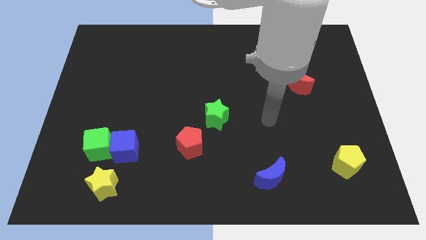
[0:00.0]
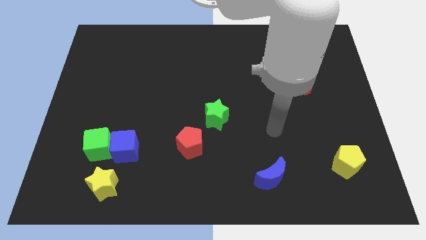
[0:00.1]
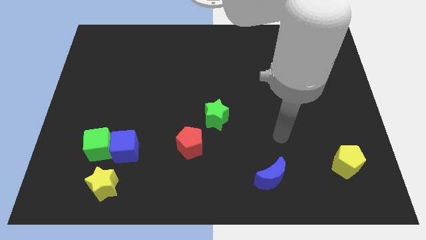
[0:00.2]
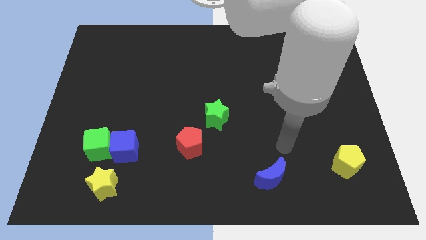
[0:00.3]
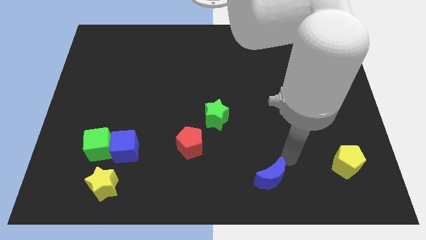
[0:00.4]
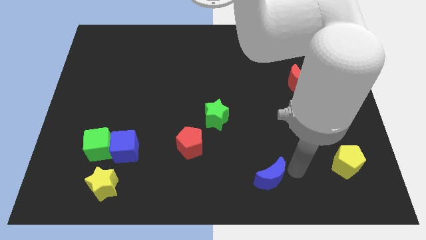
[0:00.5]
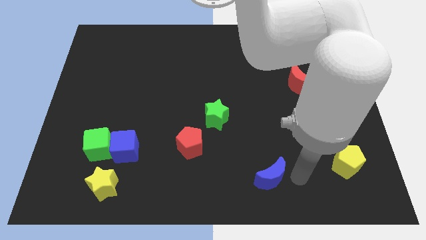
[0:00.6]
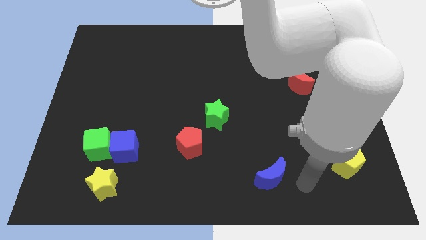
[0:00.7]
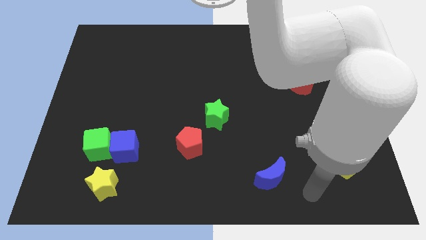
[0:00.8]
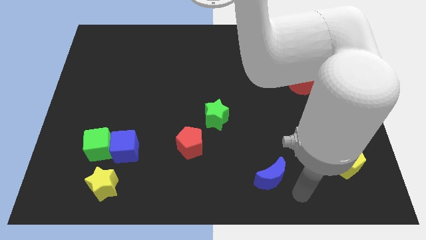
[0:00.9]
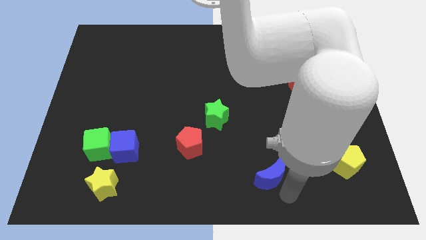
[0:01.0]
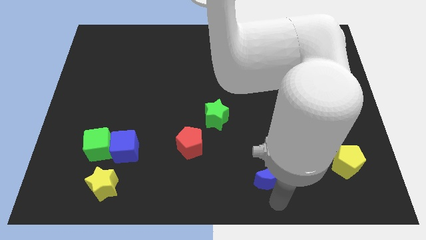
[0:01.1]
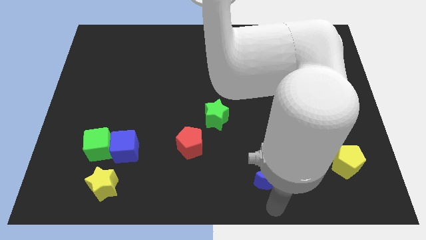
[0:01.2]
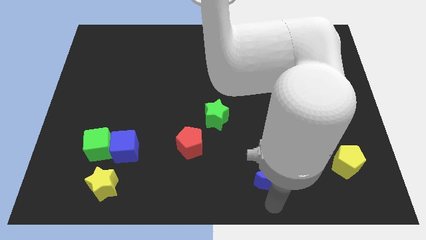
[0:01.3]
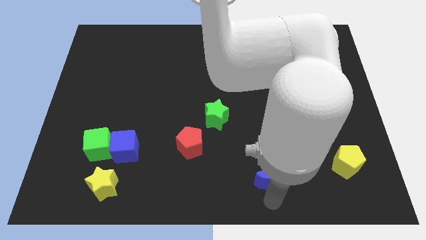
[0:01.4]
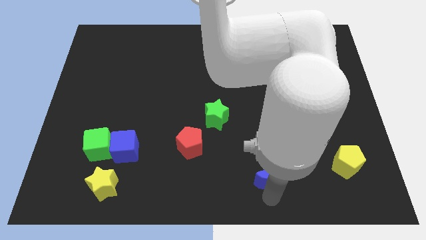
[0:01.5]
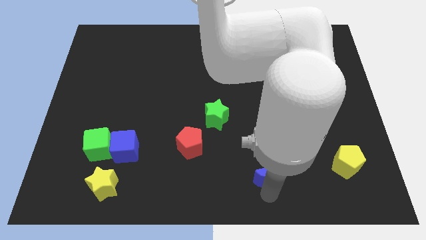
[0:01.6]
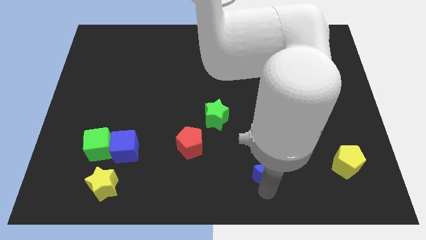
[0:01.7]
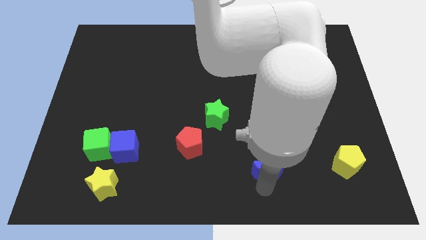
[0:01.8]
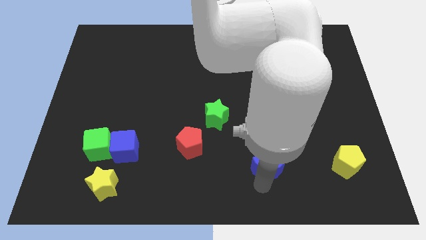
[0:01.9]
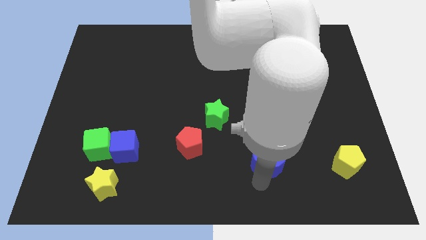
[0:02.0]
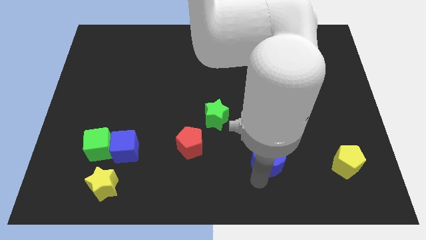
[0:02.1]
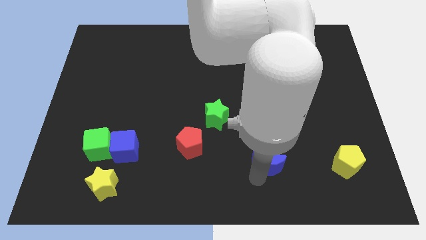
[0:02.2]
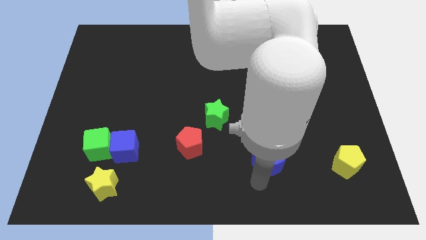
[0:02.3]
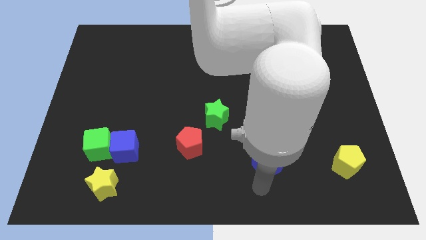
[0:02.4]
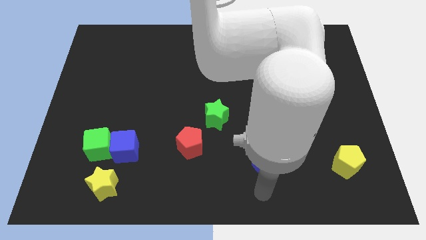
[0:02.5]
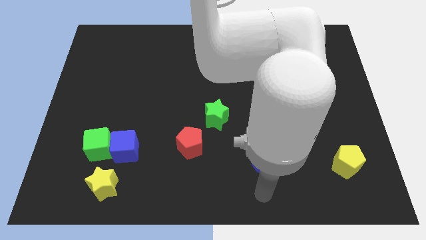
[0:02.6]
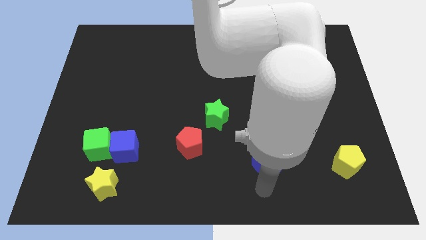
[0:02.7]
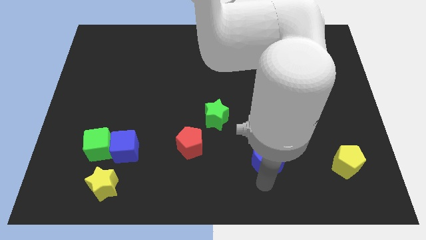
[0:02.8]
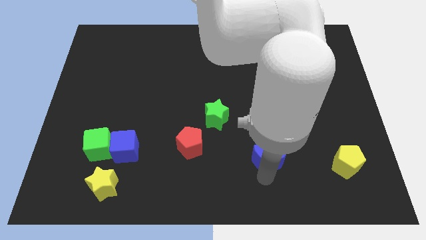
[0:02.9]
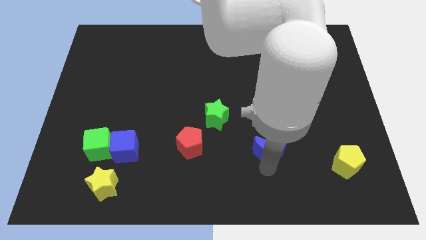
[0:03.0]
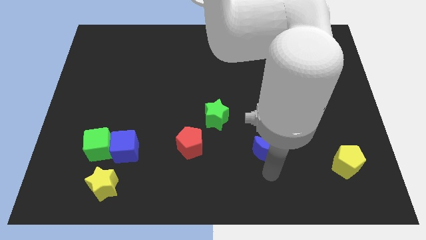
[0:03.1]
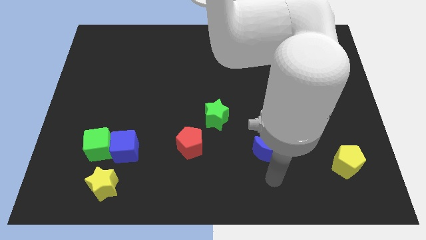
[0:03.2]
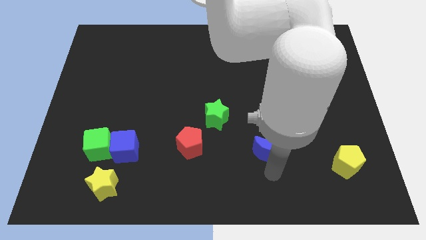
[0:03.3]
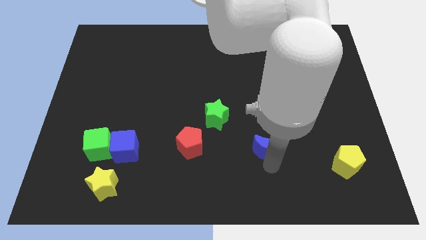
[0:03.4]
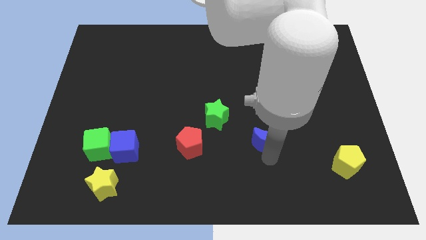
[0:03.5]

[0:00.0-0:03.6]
push the blue moon up a bit

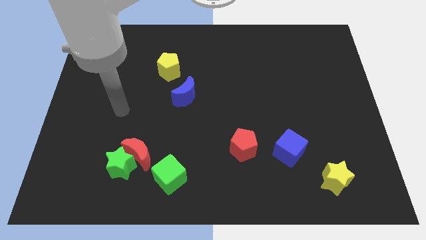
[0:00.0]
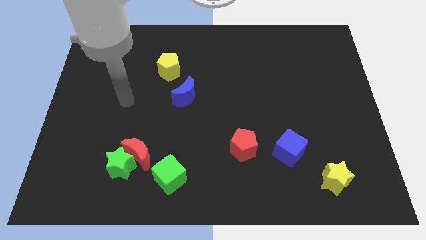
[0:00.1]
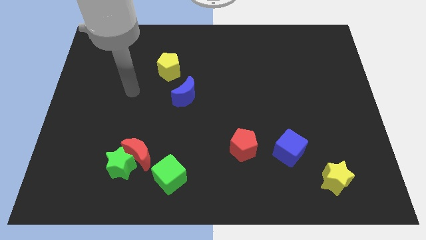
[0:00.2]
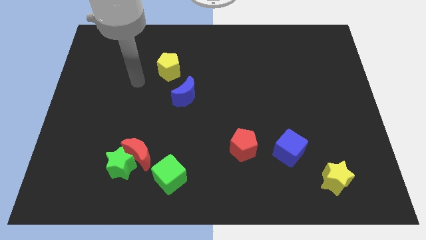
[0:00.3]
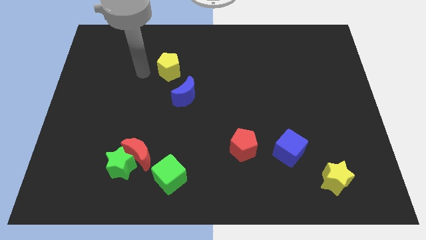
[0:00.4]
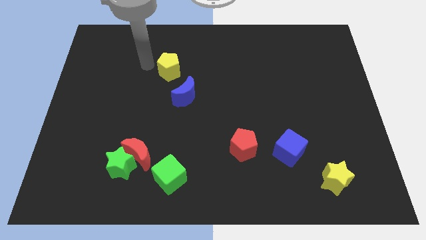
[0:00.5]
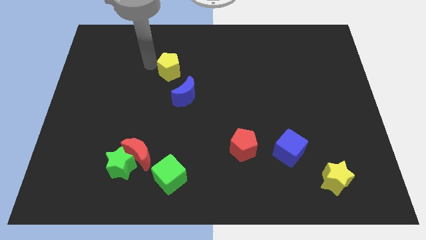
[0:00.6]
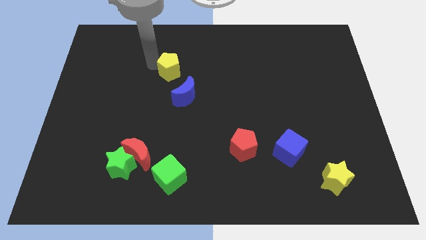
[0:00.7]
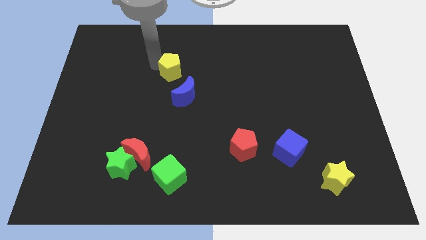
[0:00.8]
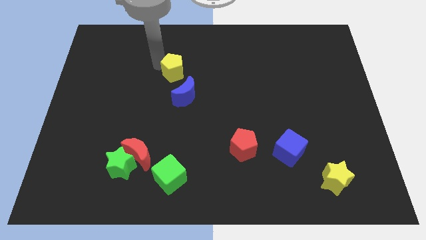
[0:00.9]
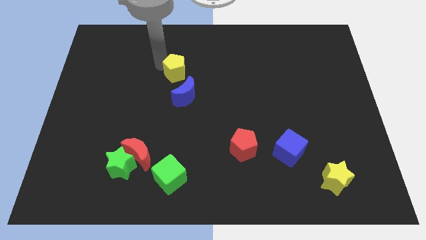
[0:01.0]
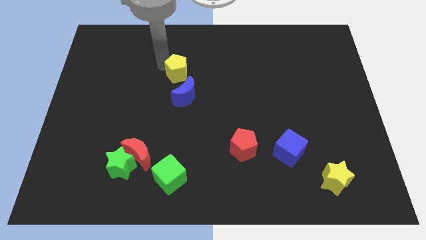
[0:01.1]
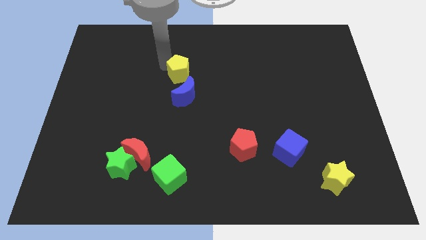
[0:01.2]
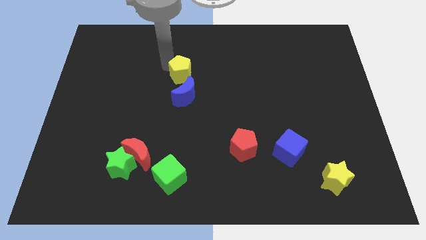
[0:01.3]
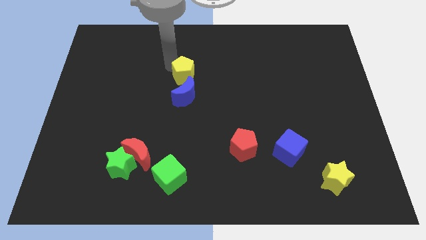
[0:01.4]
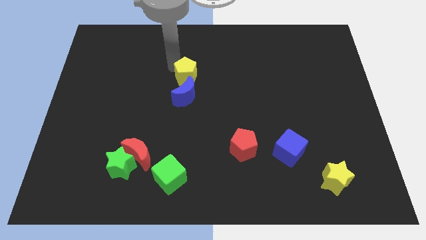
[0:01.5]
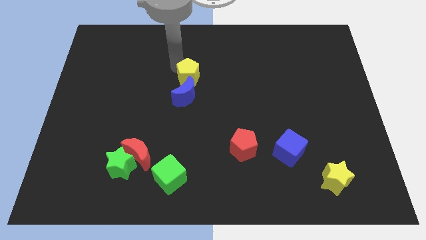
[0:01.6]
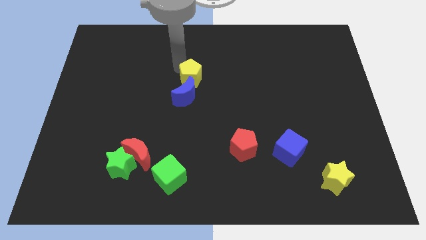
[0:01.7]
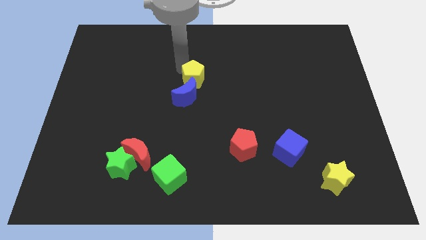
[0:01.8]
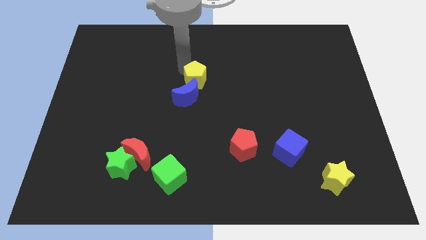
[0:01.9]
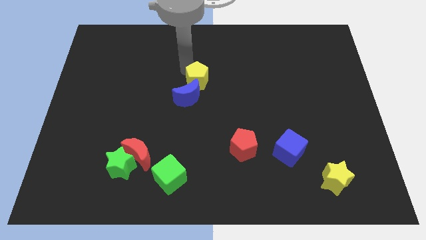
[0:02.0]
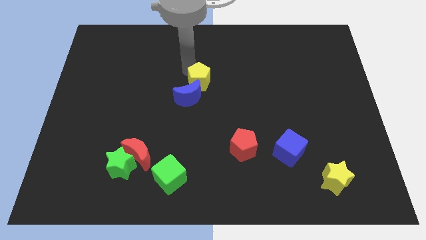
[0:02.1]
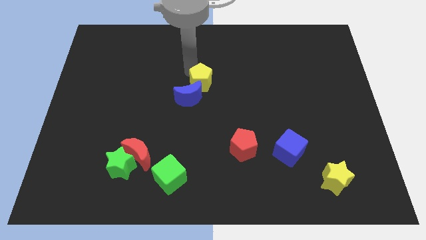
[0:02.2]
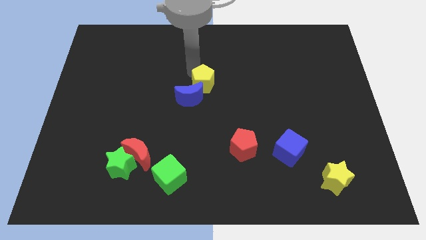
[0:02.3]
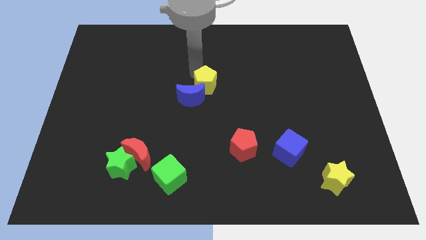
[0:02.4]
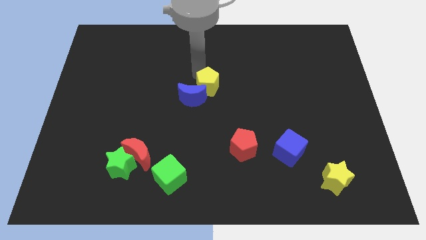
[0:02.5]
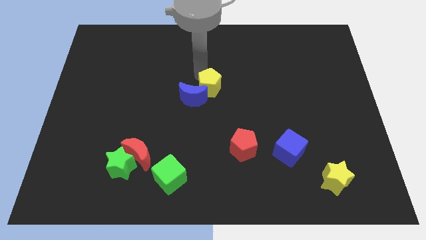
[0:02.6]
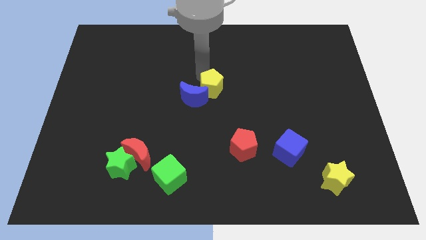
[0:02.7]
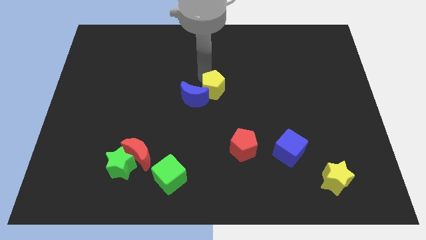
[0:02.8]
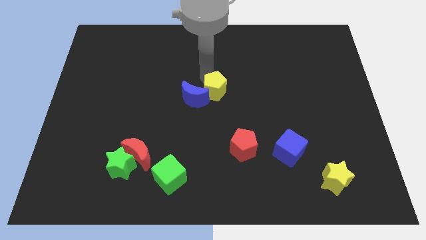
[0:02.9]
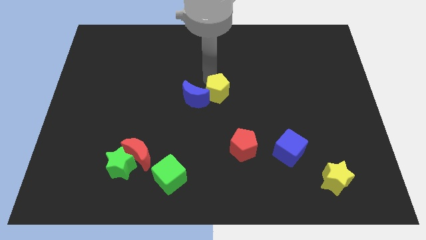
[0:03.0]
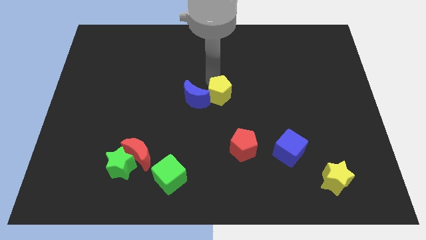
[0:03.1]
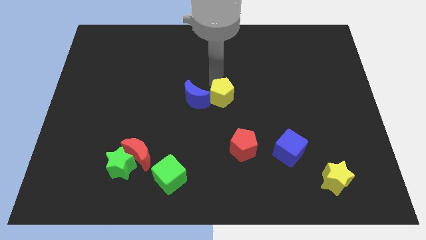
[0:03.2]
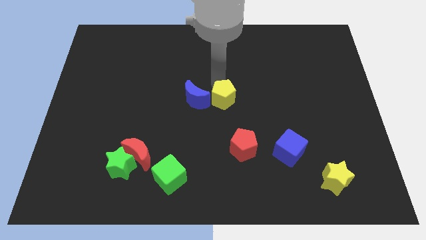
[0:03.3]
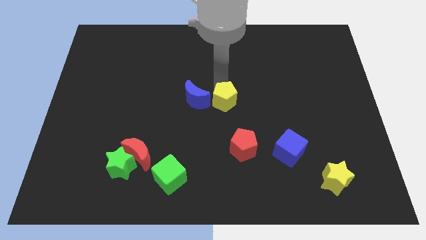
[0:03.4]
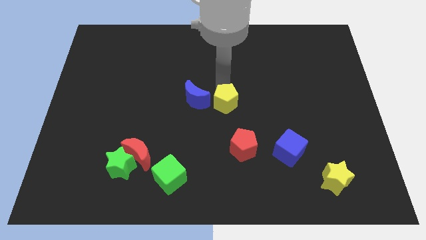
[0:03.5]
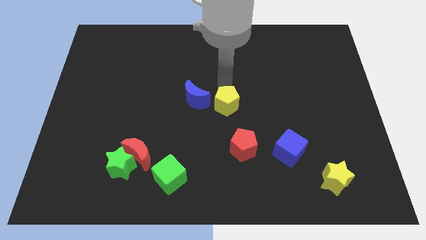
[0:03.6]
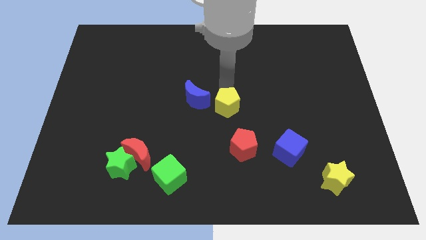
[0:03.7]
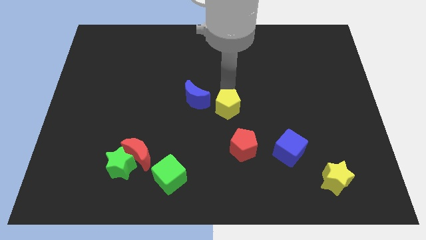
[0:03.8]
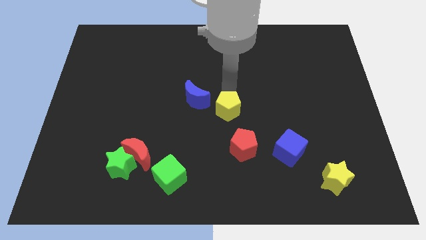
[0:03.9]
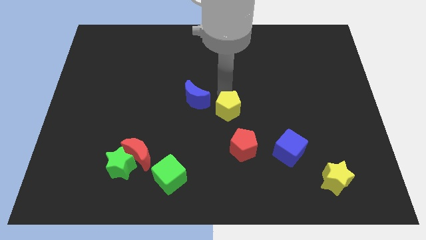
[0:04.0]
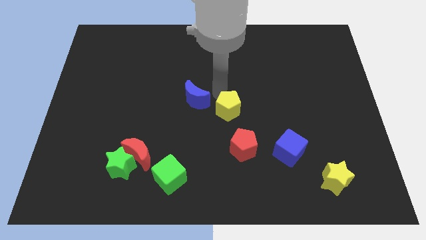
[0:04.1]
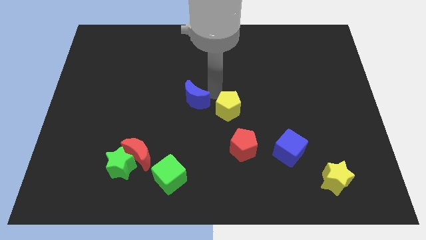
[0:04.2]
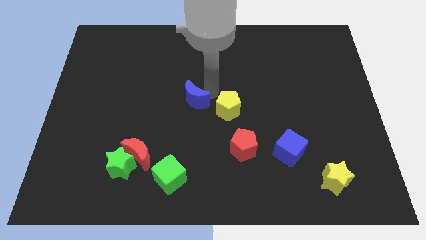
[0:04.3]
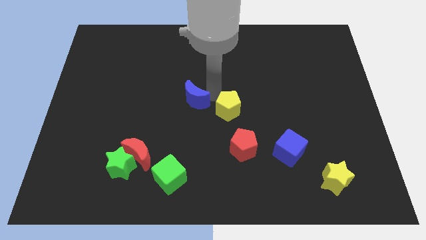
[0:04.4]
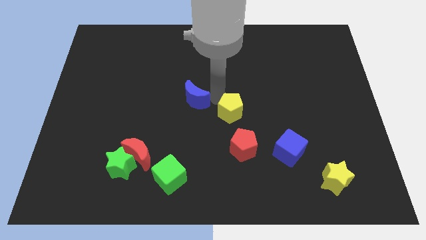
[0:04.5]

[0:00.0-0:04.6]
move the yellow pentagon diagonally downwards and to the right
